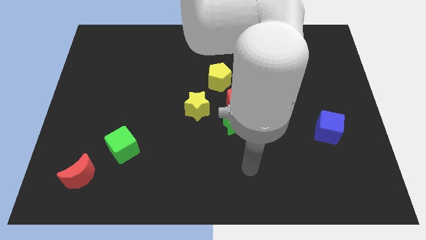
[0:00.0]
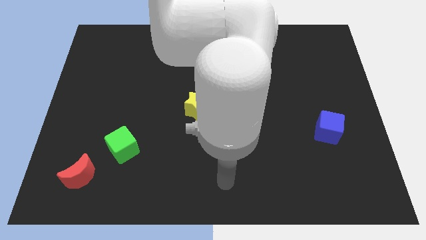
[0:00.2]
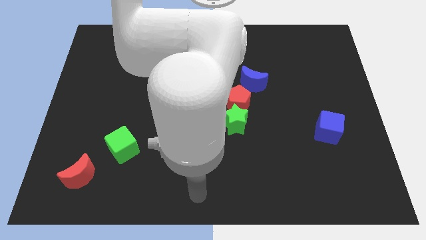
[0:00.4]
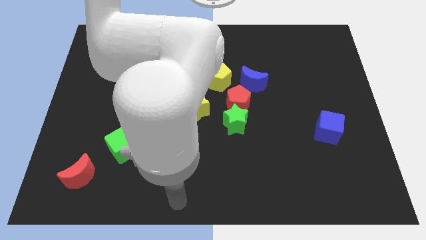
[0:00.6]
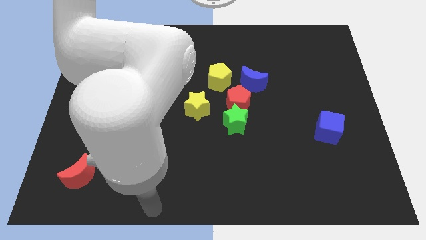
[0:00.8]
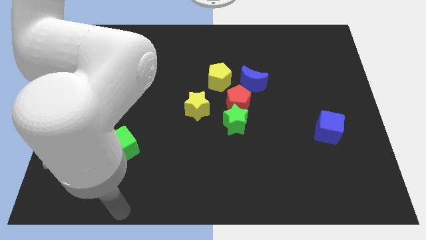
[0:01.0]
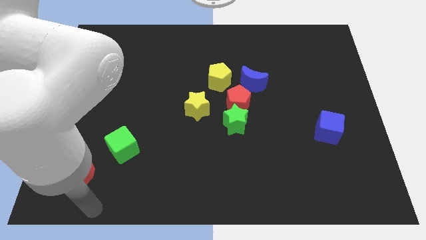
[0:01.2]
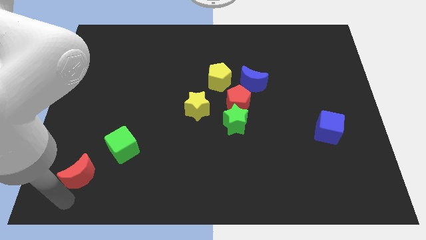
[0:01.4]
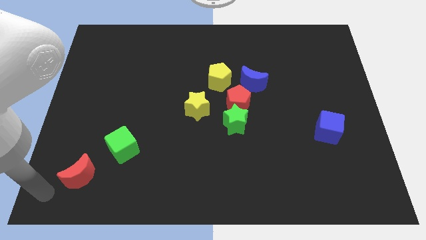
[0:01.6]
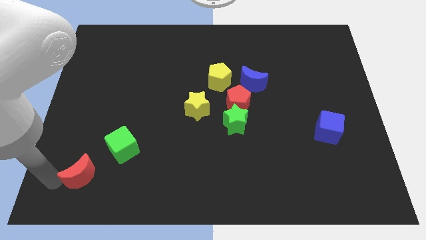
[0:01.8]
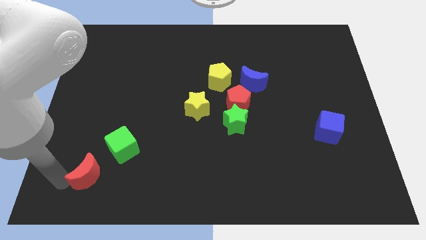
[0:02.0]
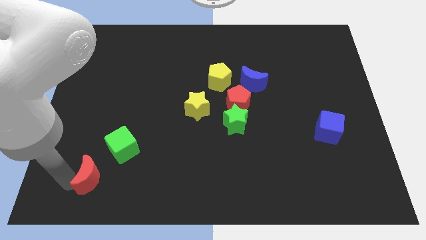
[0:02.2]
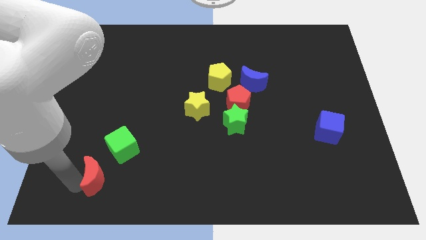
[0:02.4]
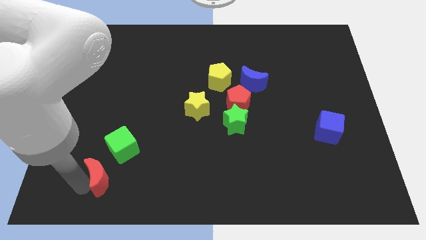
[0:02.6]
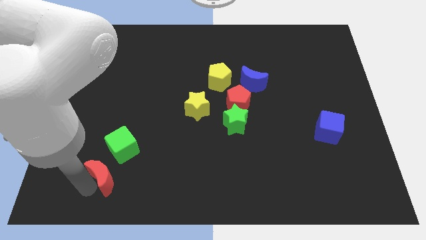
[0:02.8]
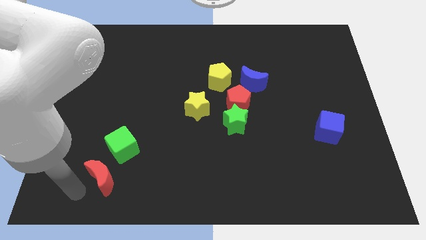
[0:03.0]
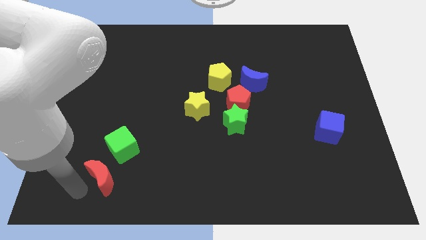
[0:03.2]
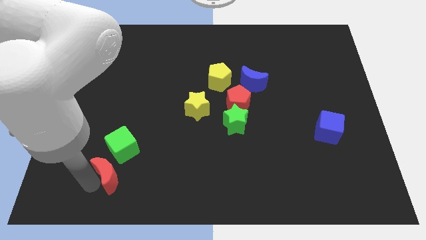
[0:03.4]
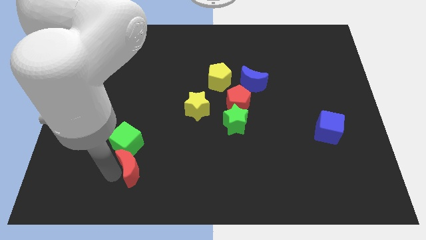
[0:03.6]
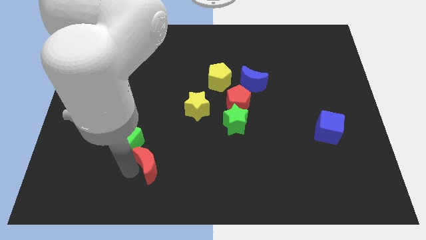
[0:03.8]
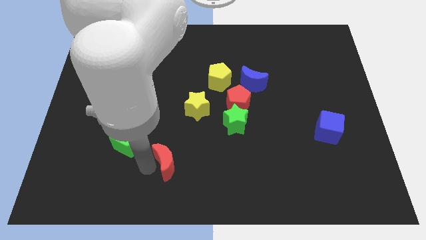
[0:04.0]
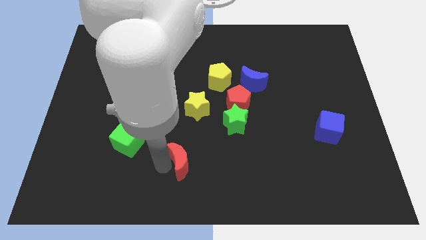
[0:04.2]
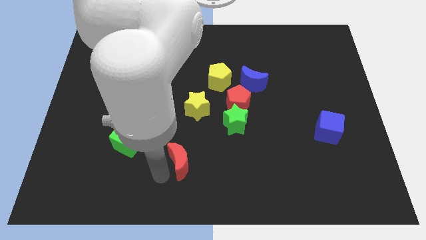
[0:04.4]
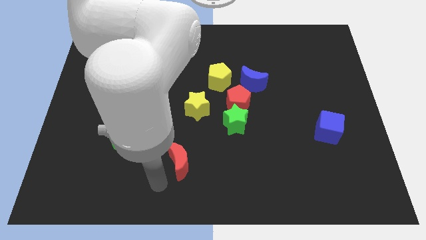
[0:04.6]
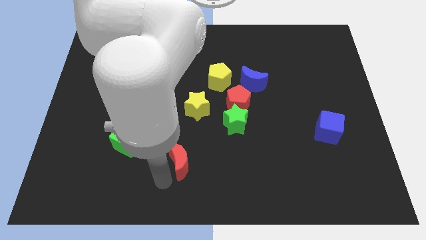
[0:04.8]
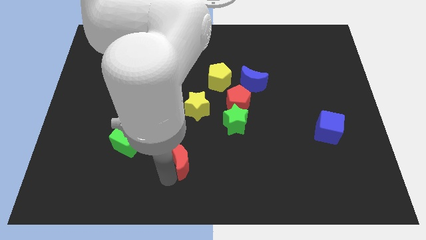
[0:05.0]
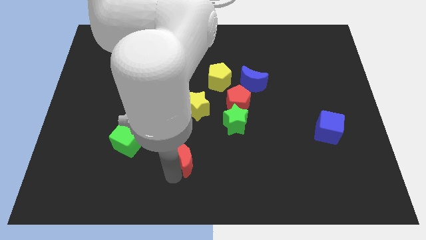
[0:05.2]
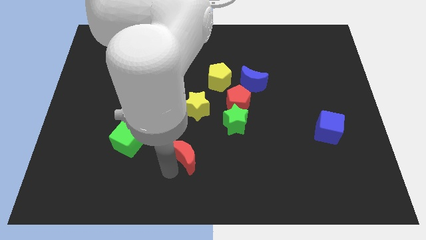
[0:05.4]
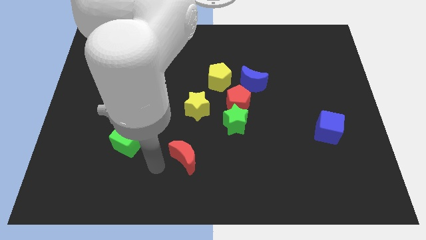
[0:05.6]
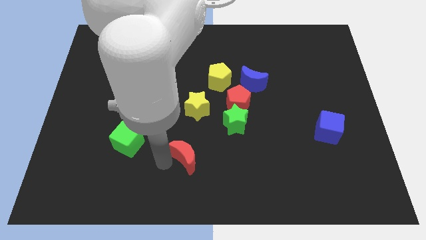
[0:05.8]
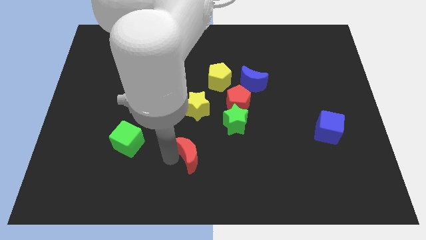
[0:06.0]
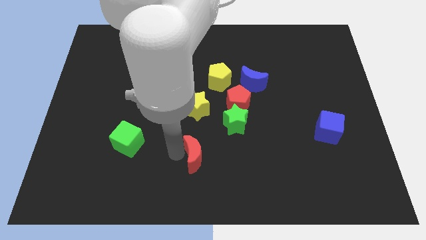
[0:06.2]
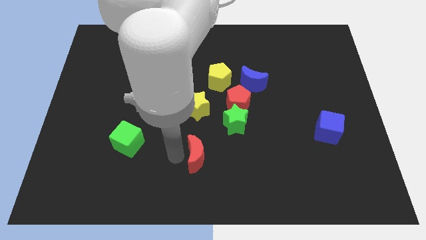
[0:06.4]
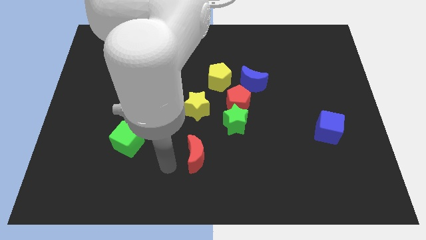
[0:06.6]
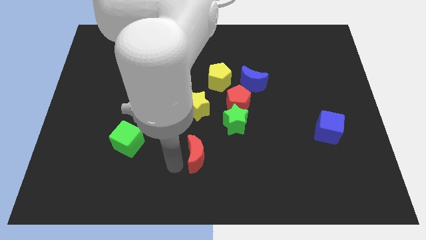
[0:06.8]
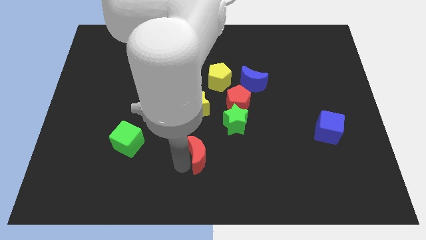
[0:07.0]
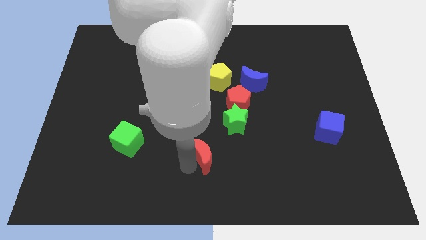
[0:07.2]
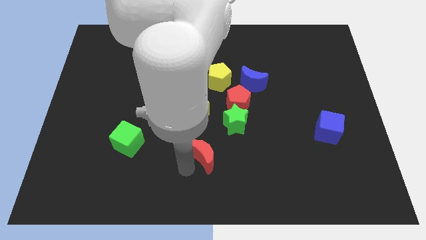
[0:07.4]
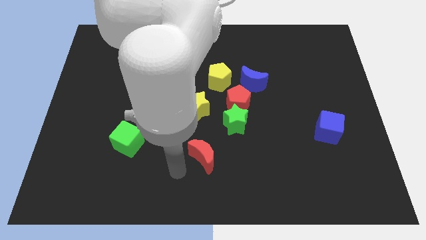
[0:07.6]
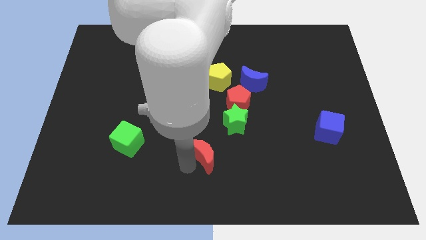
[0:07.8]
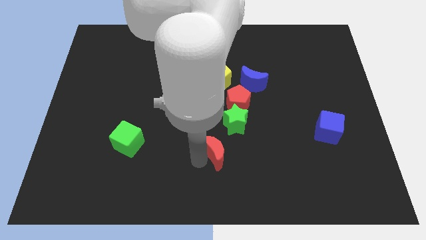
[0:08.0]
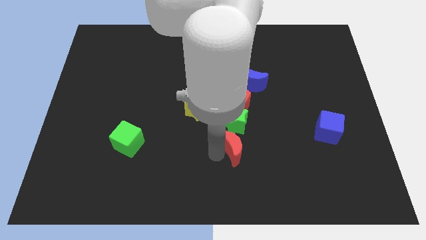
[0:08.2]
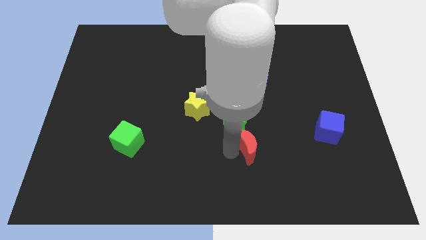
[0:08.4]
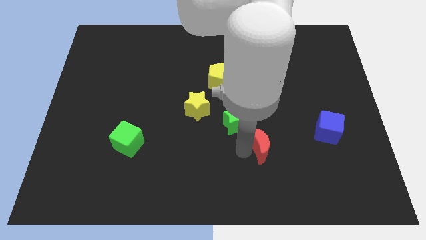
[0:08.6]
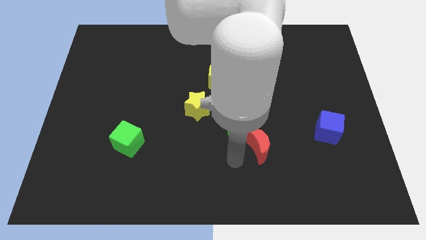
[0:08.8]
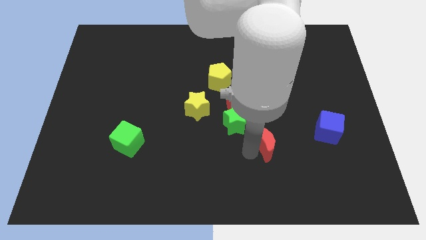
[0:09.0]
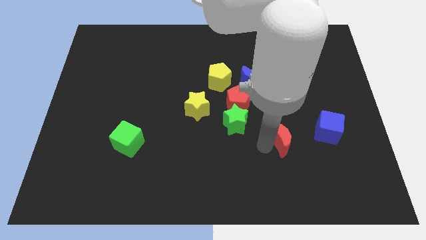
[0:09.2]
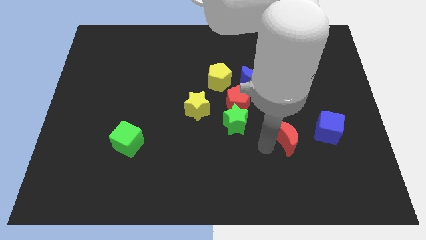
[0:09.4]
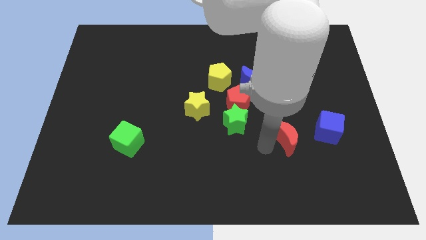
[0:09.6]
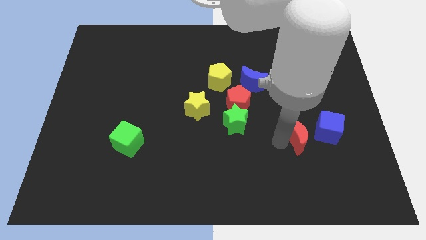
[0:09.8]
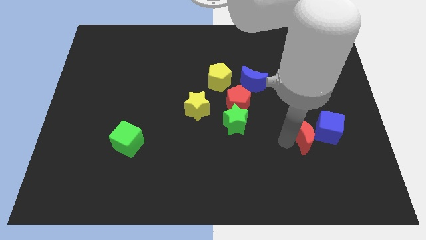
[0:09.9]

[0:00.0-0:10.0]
move the red moon close to the blue cube

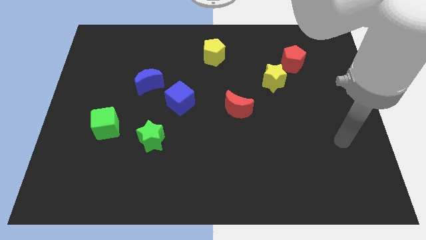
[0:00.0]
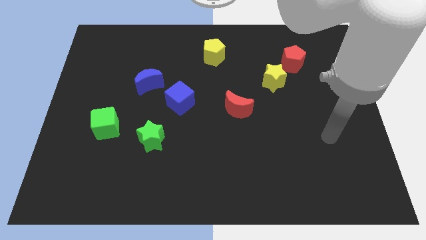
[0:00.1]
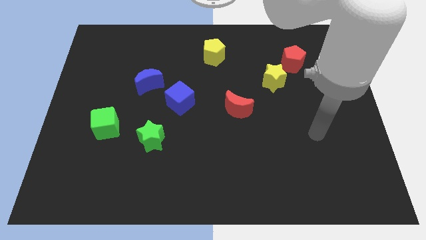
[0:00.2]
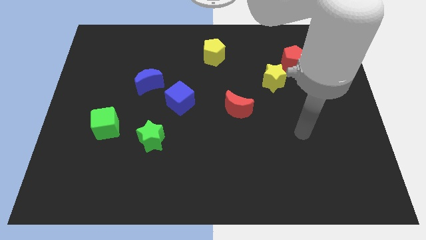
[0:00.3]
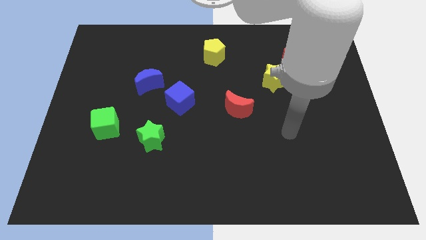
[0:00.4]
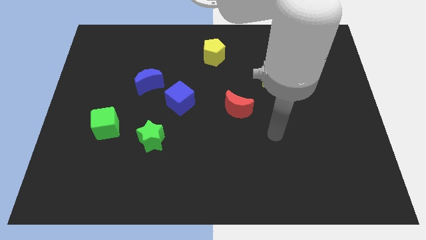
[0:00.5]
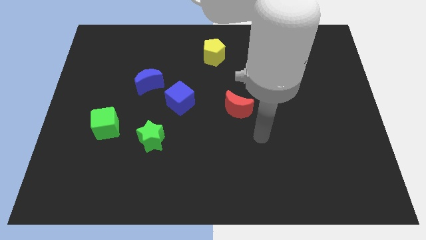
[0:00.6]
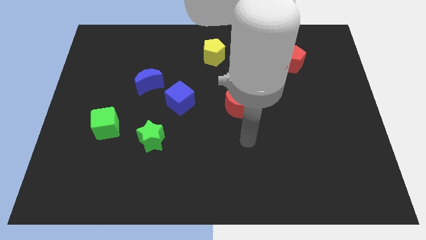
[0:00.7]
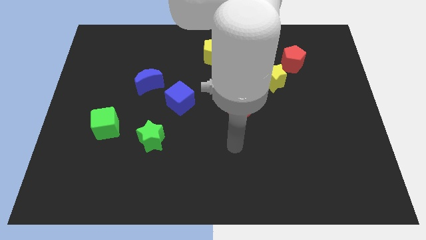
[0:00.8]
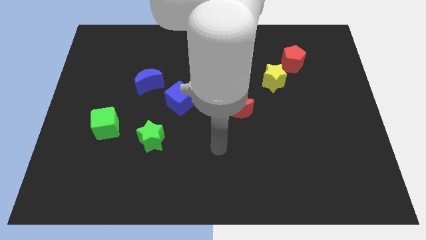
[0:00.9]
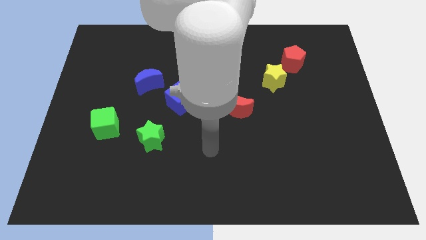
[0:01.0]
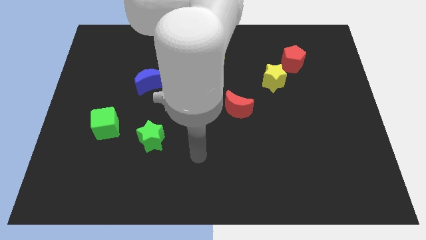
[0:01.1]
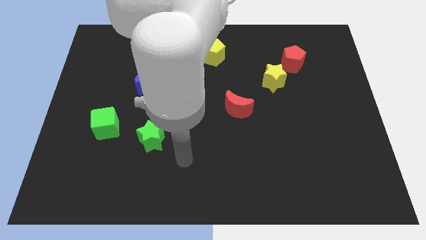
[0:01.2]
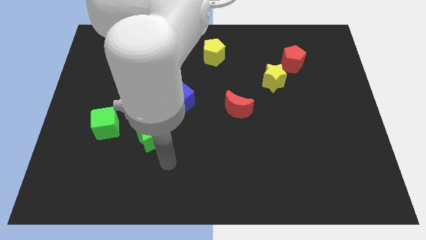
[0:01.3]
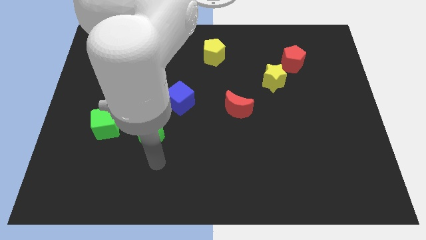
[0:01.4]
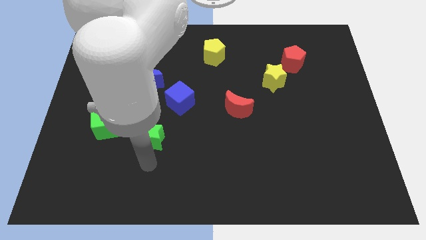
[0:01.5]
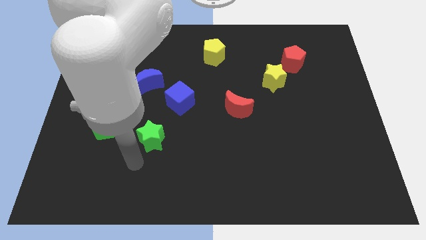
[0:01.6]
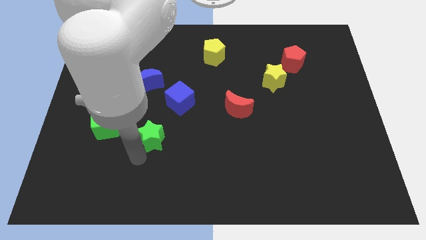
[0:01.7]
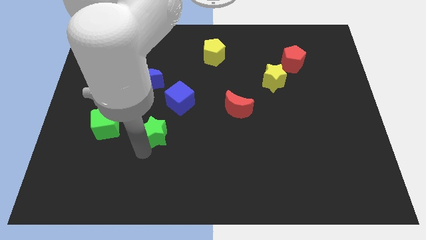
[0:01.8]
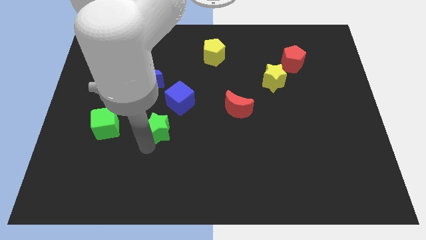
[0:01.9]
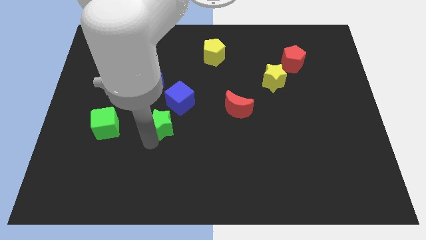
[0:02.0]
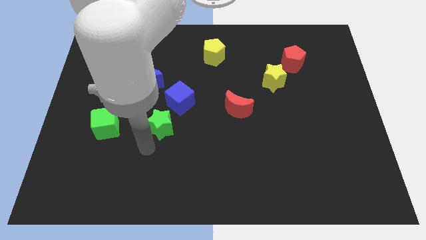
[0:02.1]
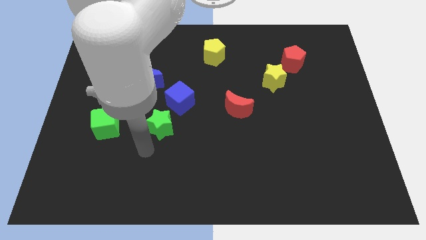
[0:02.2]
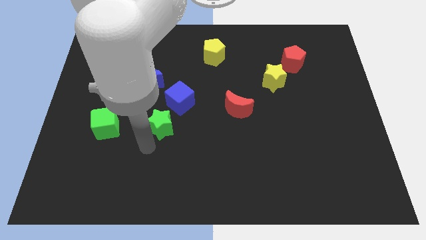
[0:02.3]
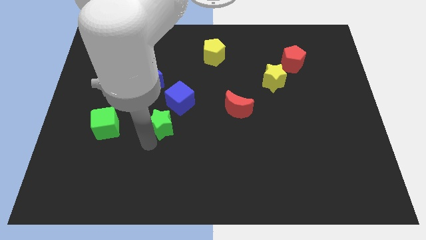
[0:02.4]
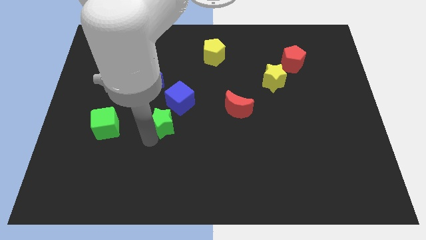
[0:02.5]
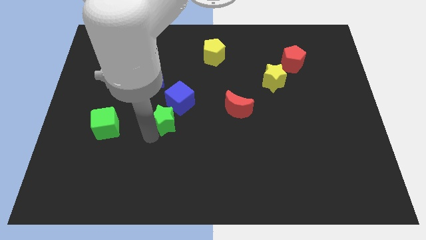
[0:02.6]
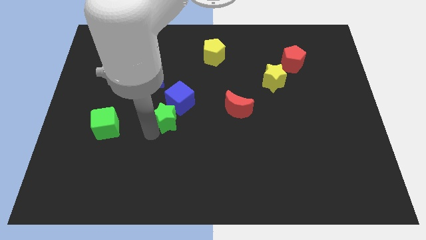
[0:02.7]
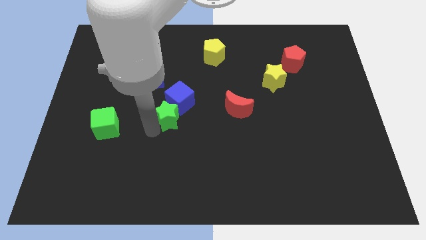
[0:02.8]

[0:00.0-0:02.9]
push the green star next to the blue cube
